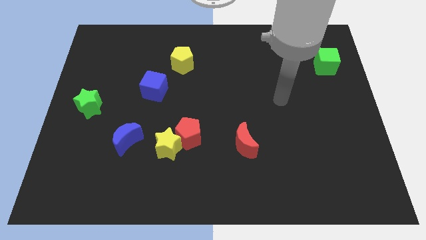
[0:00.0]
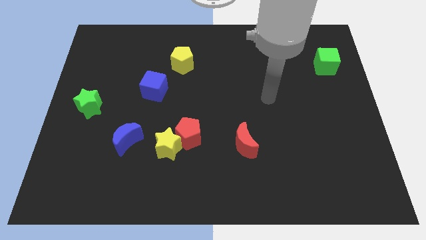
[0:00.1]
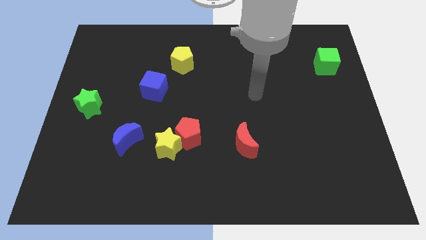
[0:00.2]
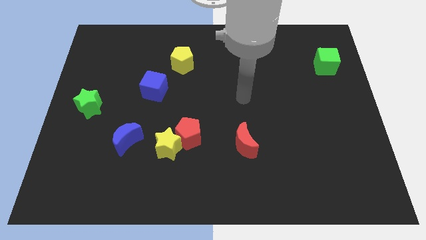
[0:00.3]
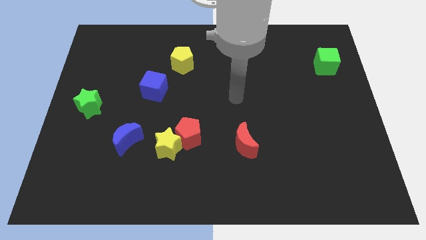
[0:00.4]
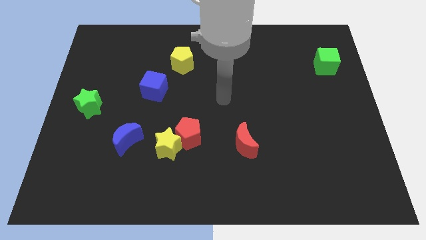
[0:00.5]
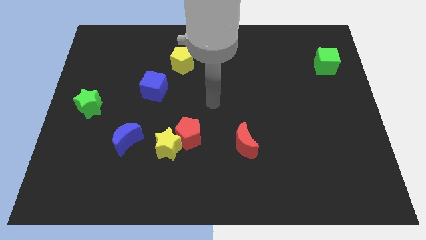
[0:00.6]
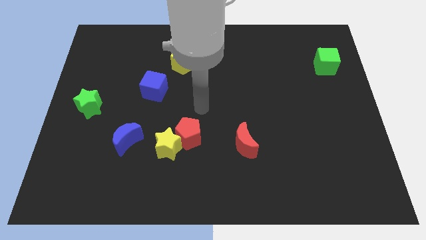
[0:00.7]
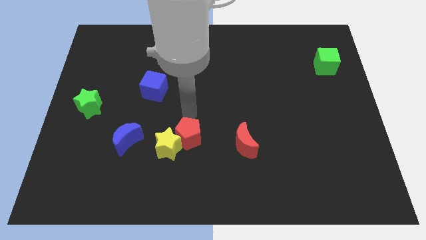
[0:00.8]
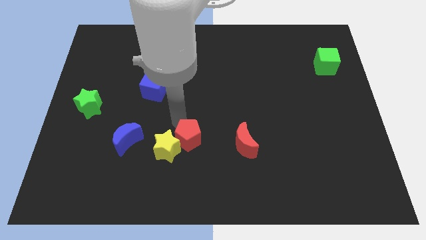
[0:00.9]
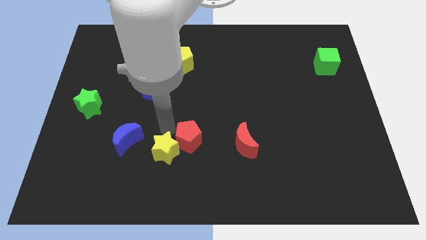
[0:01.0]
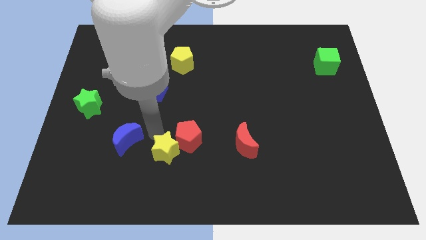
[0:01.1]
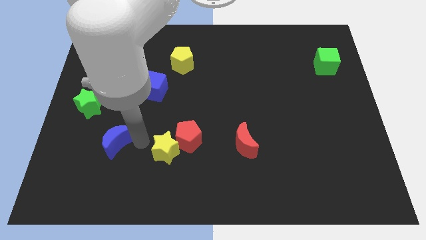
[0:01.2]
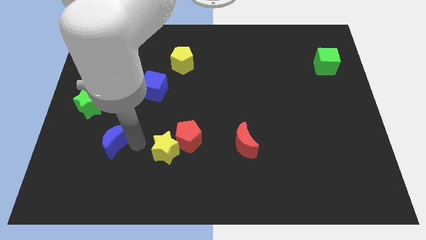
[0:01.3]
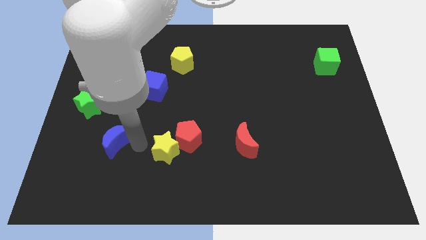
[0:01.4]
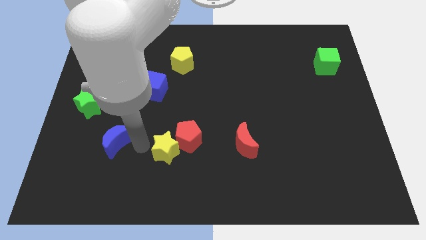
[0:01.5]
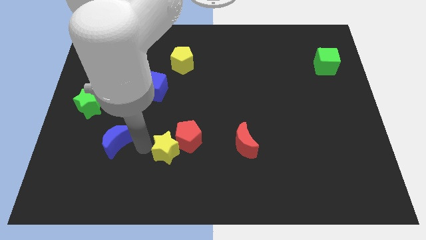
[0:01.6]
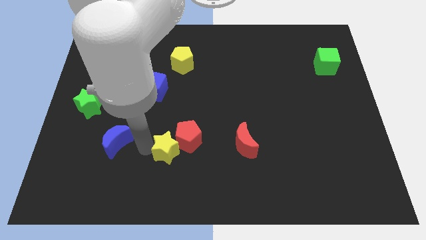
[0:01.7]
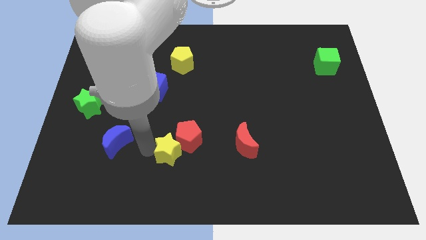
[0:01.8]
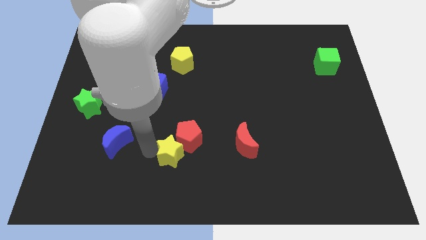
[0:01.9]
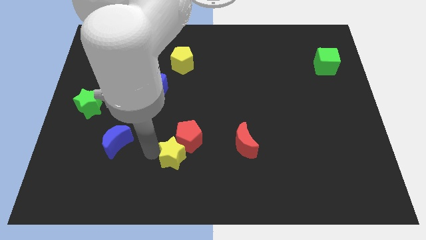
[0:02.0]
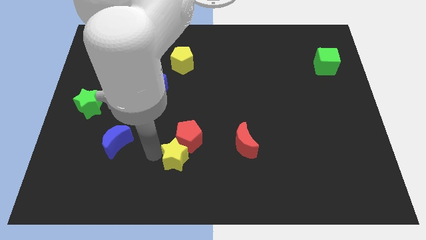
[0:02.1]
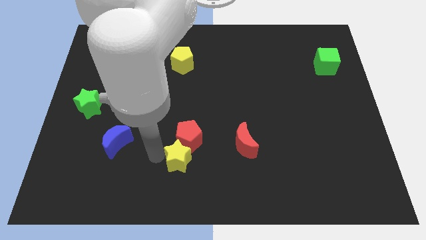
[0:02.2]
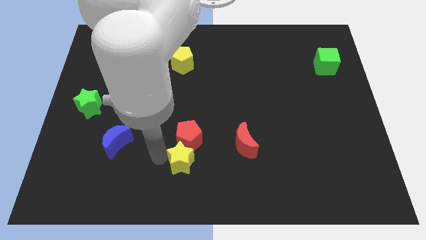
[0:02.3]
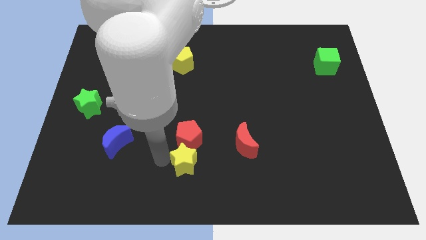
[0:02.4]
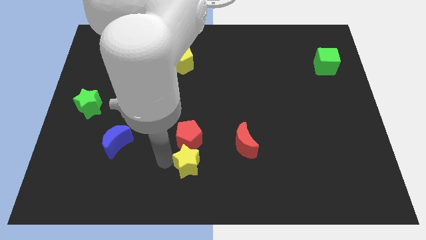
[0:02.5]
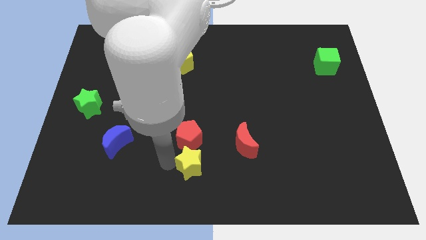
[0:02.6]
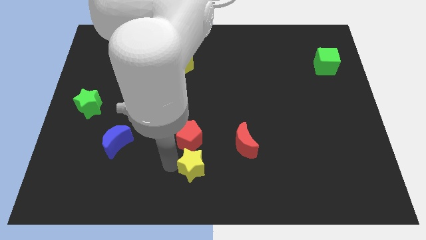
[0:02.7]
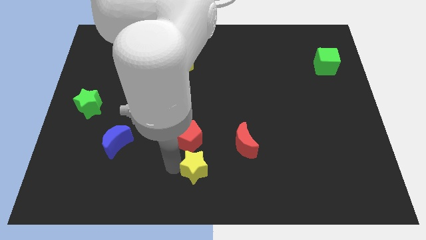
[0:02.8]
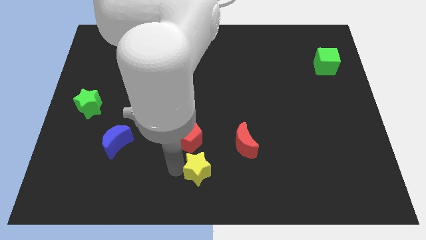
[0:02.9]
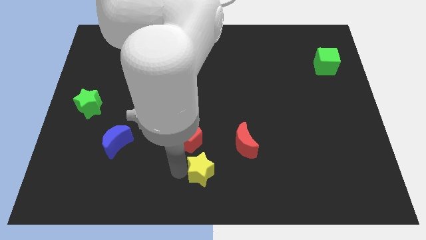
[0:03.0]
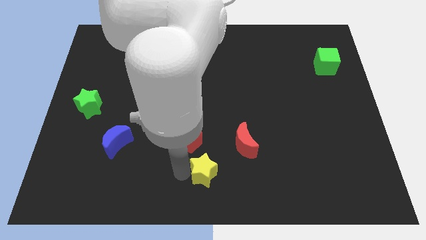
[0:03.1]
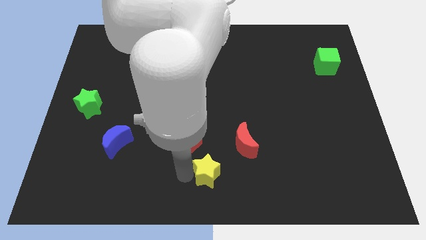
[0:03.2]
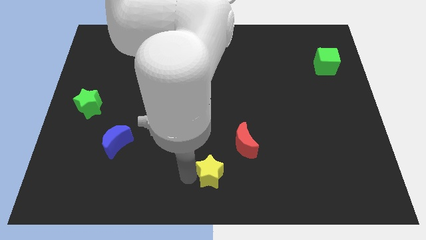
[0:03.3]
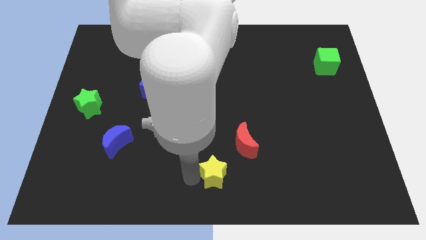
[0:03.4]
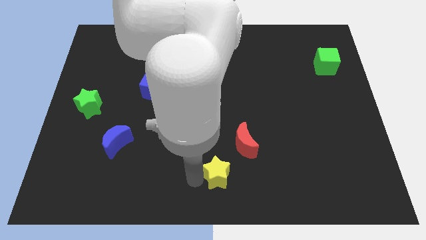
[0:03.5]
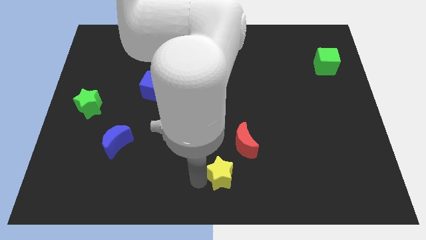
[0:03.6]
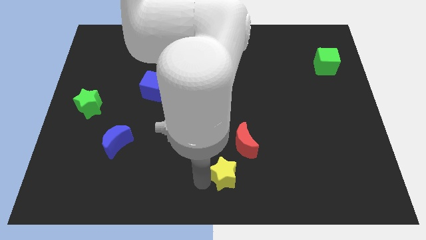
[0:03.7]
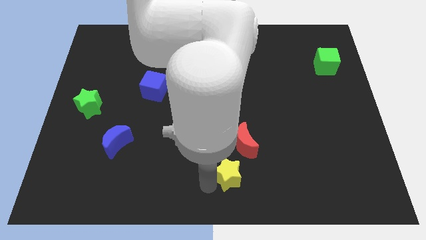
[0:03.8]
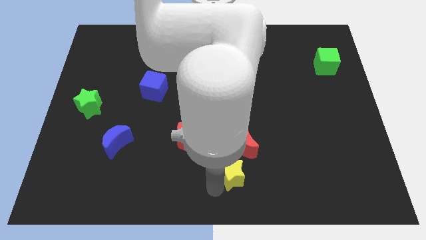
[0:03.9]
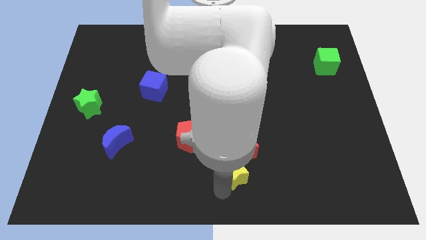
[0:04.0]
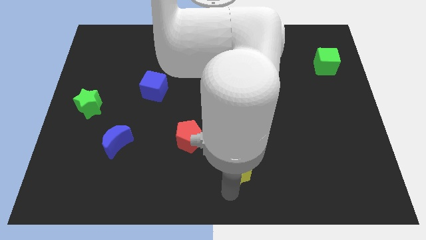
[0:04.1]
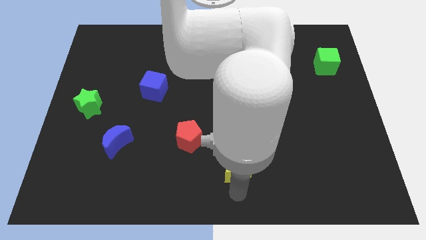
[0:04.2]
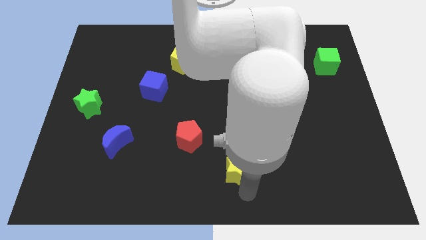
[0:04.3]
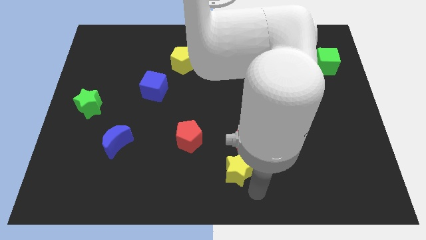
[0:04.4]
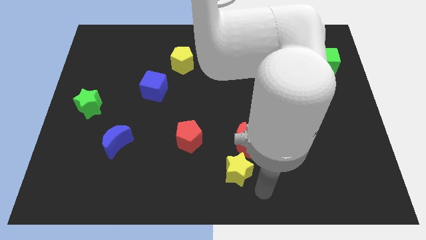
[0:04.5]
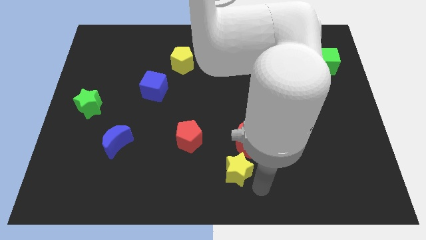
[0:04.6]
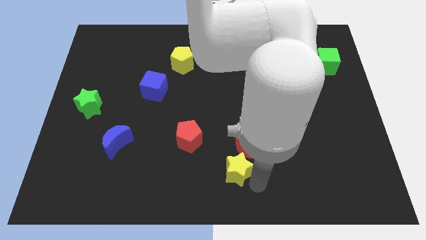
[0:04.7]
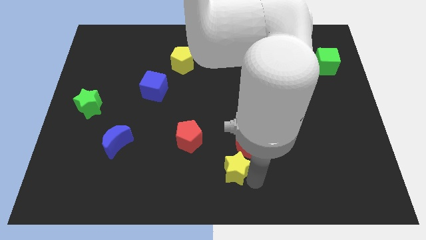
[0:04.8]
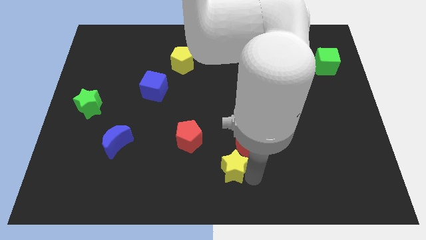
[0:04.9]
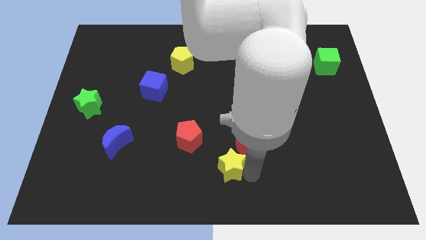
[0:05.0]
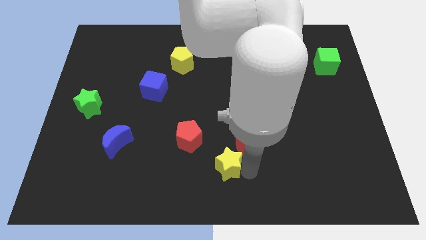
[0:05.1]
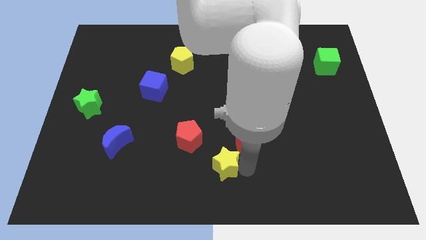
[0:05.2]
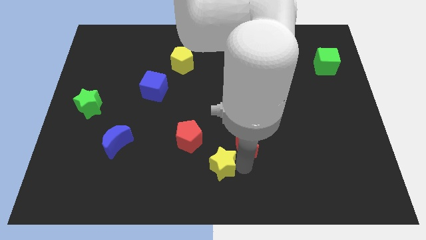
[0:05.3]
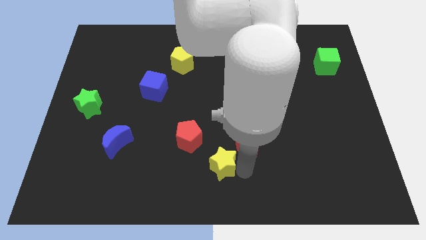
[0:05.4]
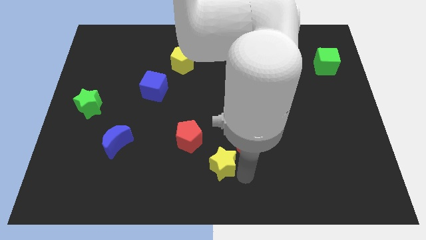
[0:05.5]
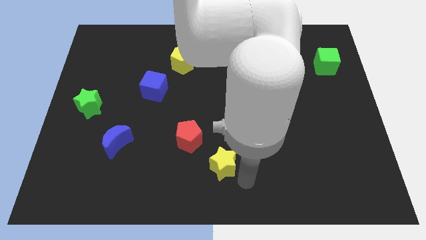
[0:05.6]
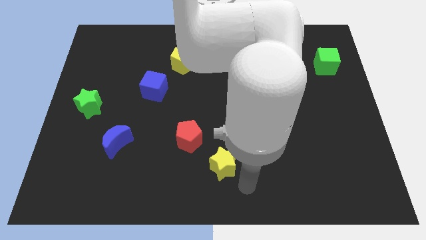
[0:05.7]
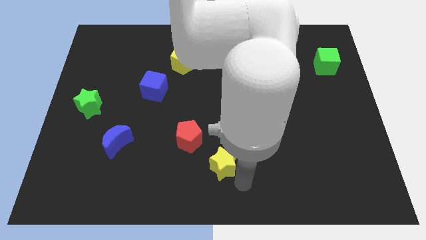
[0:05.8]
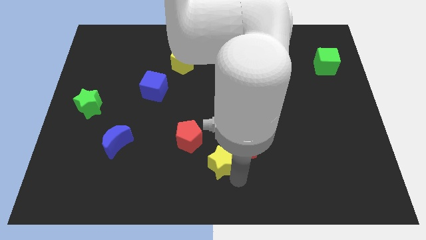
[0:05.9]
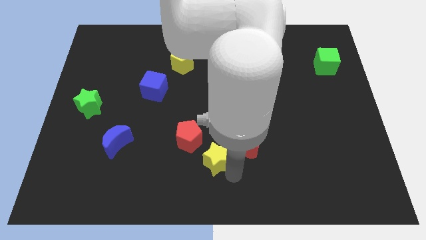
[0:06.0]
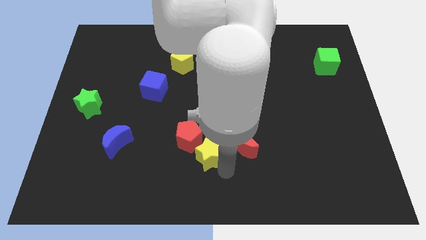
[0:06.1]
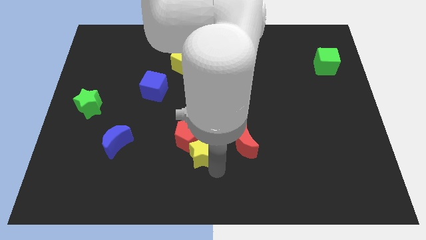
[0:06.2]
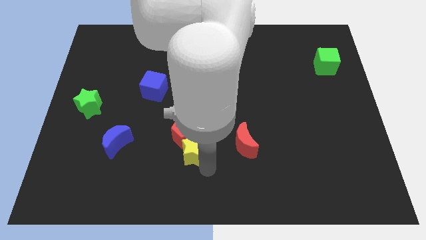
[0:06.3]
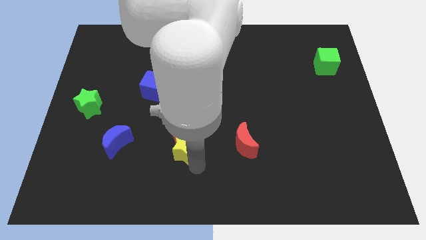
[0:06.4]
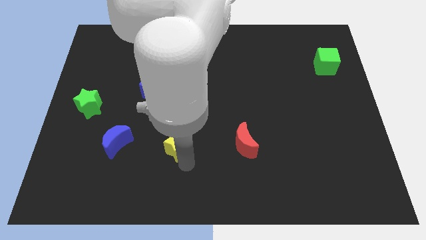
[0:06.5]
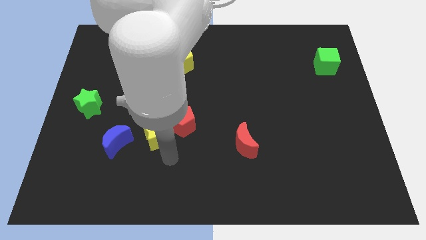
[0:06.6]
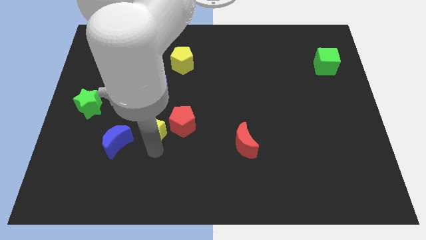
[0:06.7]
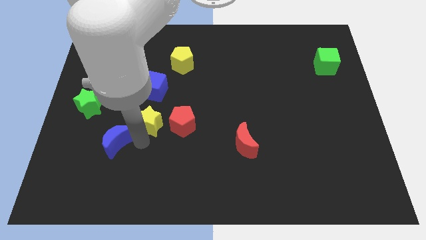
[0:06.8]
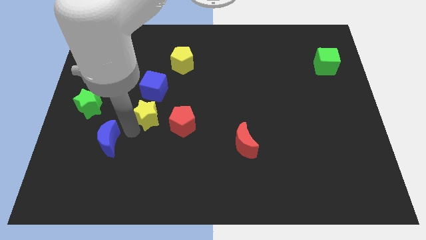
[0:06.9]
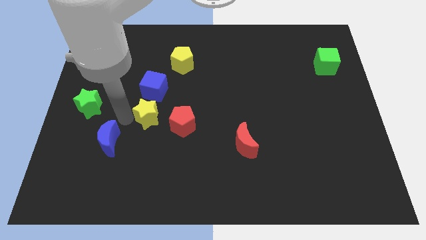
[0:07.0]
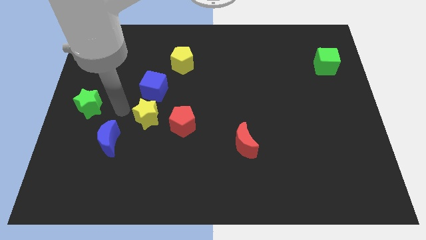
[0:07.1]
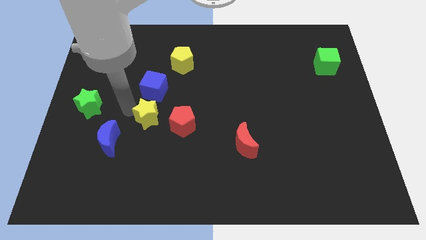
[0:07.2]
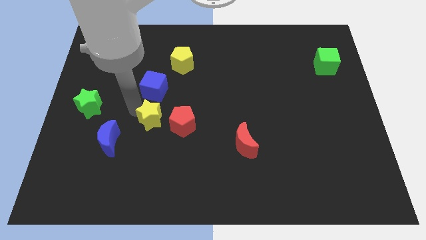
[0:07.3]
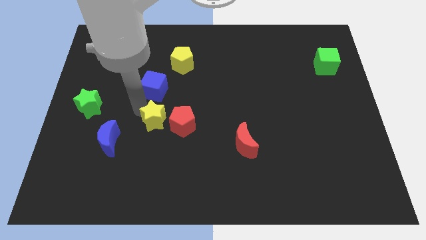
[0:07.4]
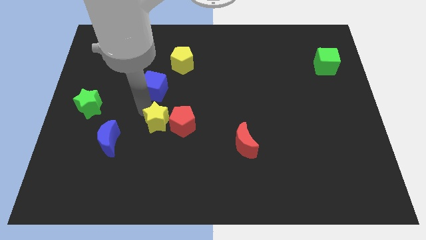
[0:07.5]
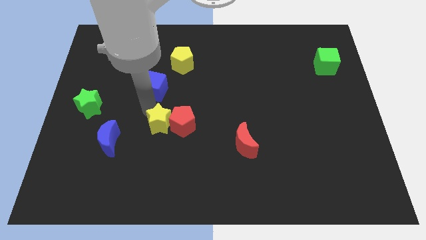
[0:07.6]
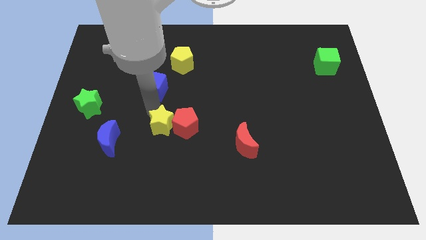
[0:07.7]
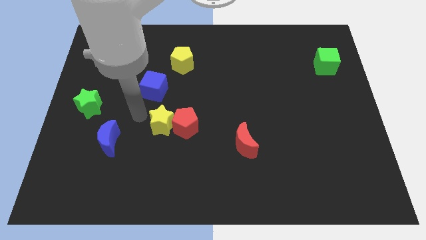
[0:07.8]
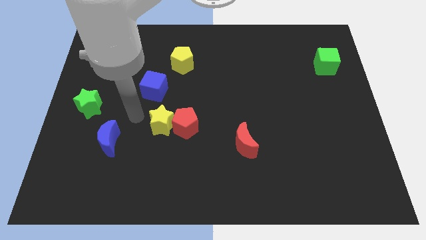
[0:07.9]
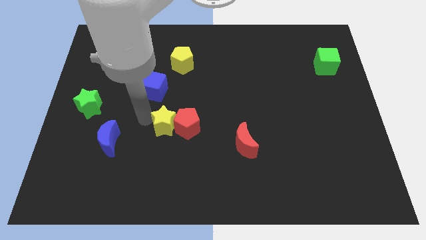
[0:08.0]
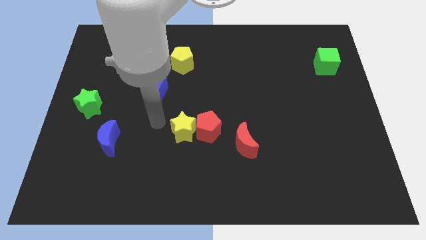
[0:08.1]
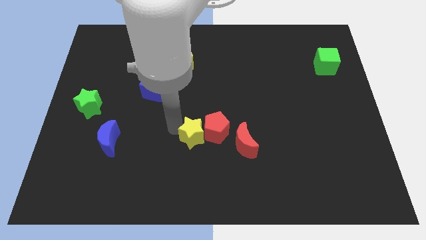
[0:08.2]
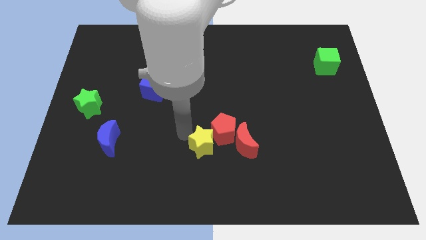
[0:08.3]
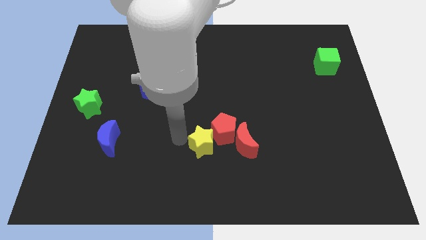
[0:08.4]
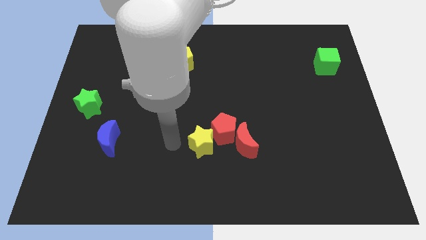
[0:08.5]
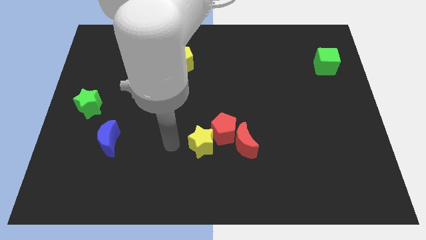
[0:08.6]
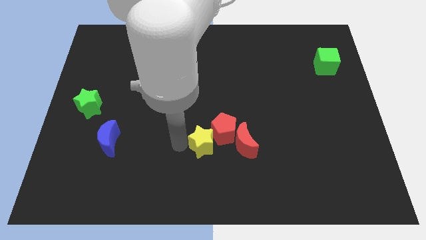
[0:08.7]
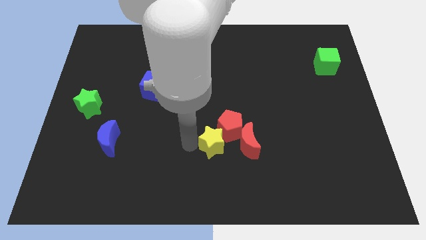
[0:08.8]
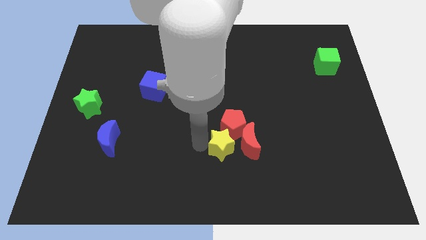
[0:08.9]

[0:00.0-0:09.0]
move the yellow star to the red moon
